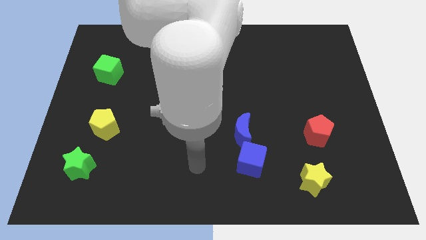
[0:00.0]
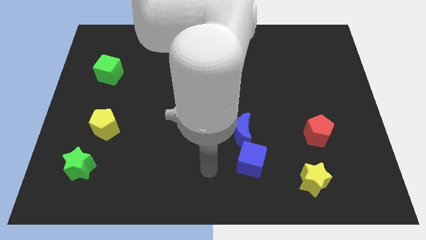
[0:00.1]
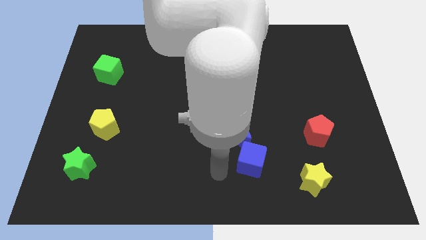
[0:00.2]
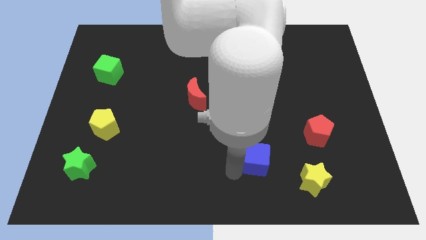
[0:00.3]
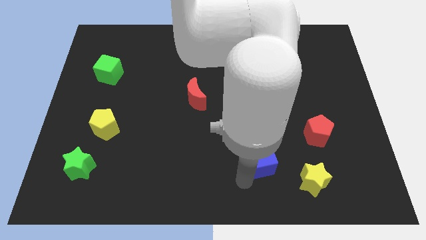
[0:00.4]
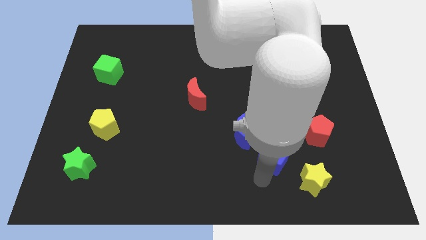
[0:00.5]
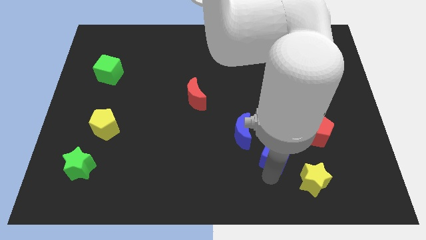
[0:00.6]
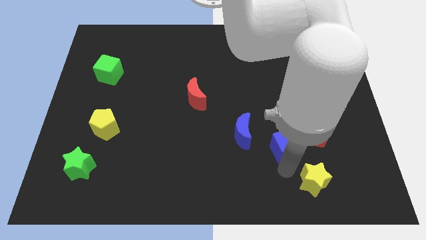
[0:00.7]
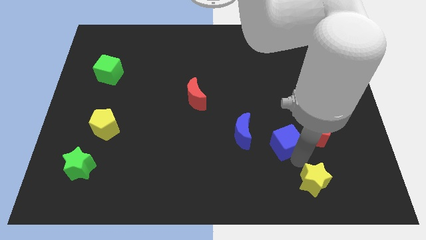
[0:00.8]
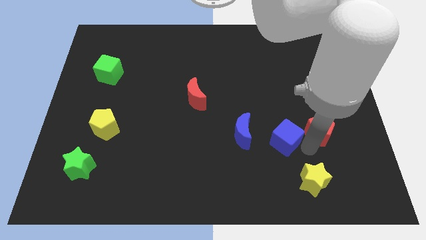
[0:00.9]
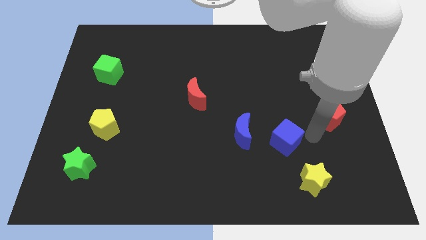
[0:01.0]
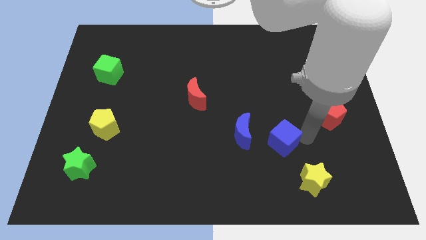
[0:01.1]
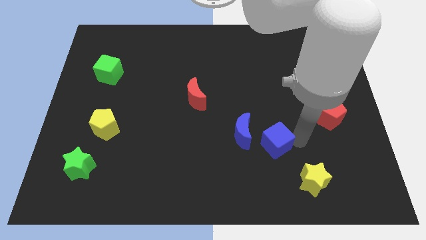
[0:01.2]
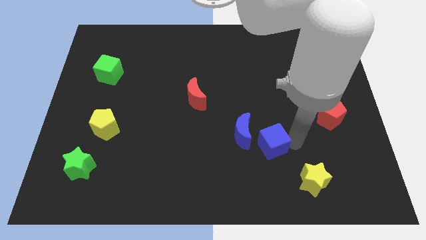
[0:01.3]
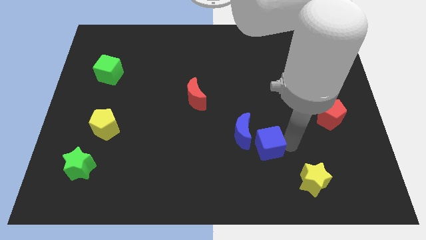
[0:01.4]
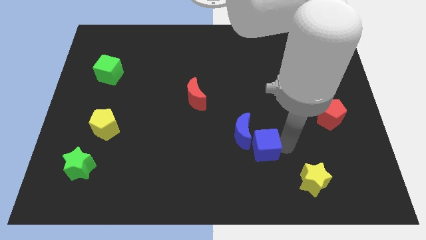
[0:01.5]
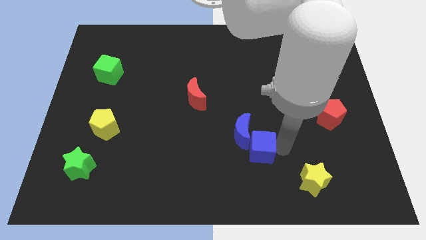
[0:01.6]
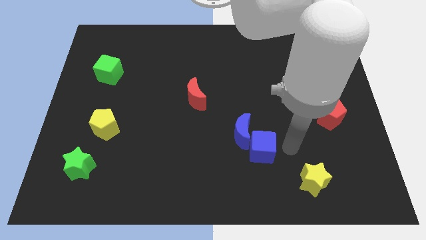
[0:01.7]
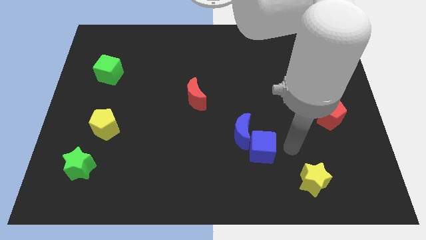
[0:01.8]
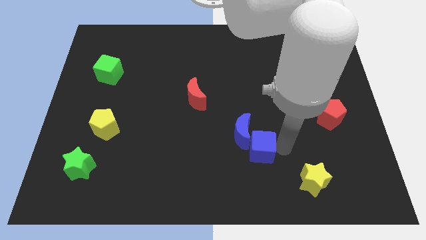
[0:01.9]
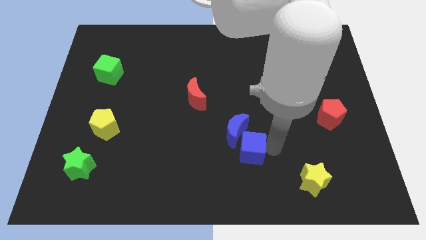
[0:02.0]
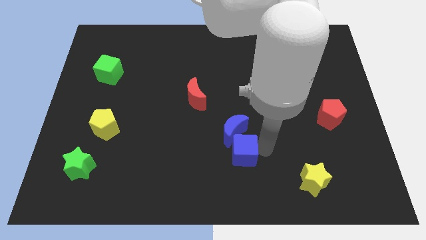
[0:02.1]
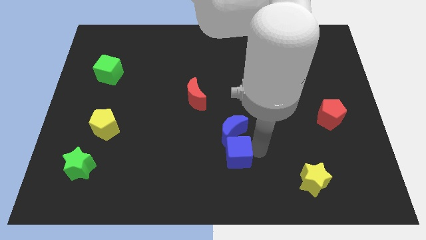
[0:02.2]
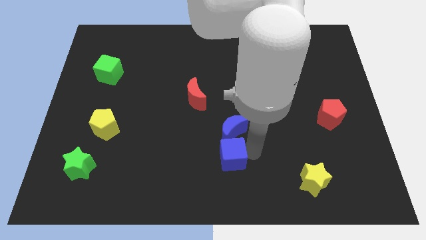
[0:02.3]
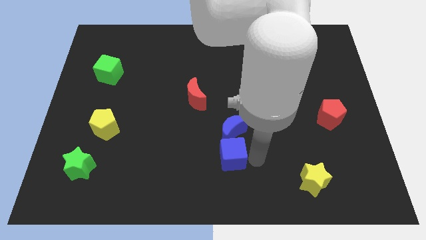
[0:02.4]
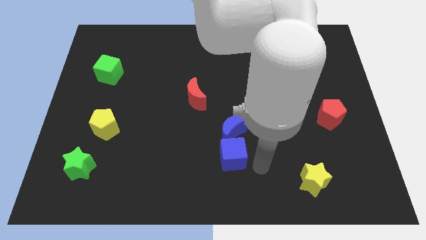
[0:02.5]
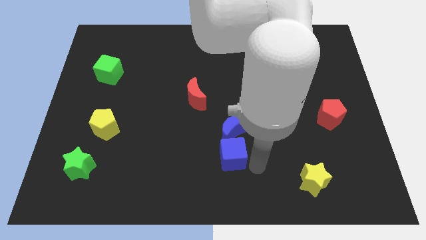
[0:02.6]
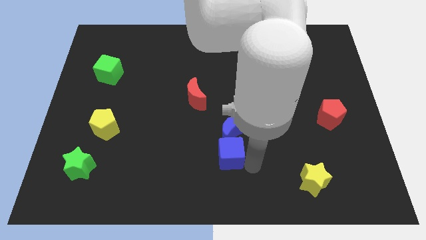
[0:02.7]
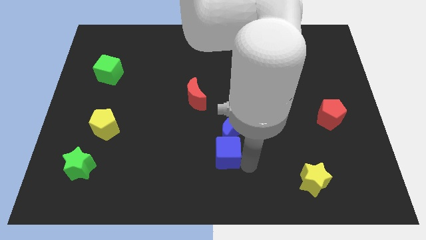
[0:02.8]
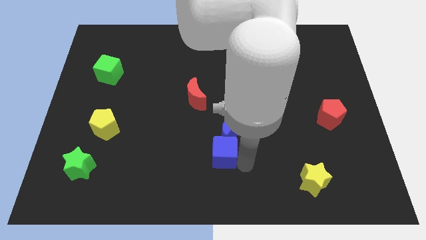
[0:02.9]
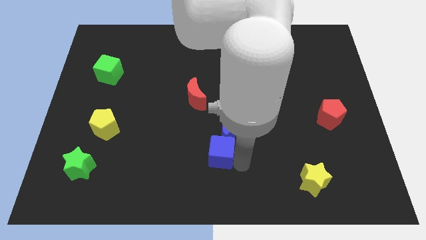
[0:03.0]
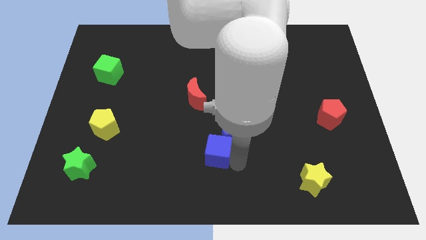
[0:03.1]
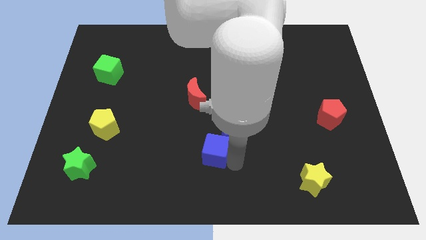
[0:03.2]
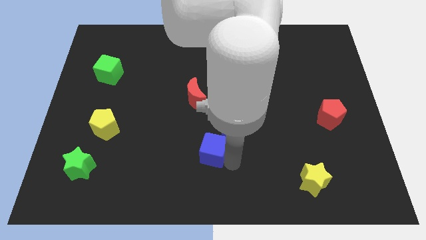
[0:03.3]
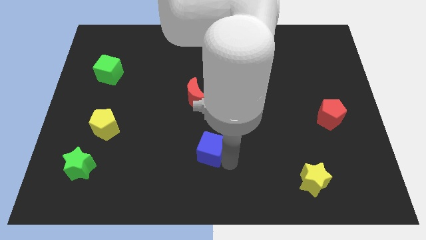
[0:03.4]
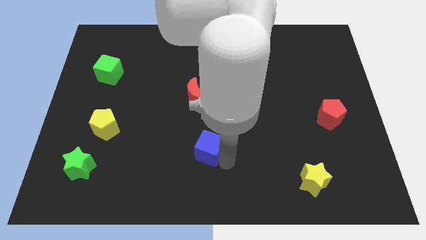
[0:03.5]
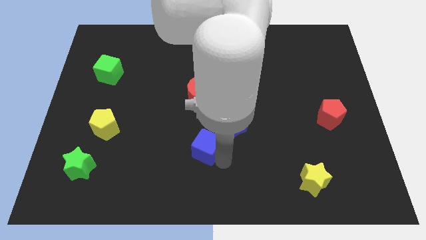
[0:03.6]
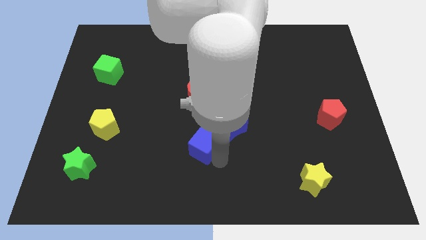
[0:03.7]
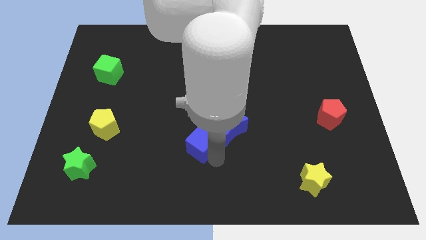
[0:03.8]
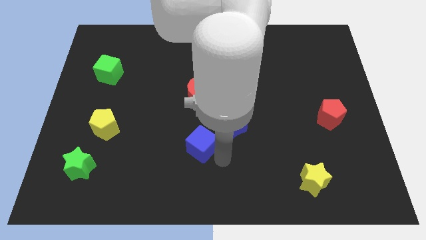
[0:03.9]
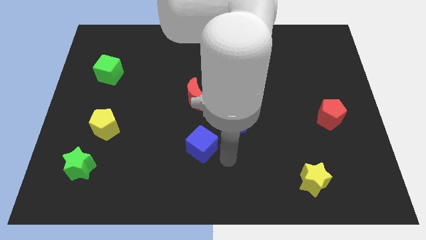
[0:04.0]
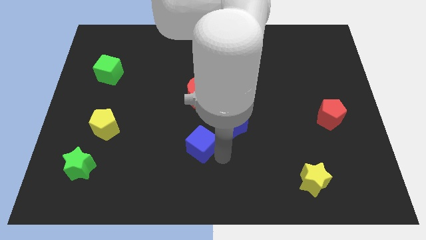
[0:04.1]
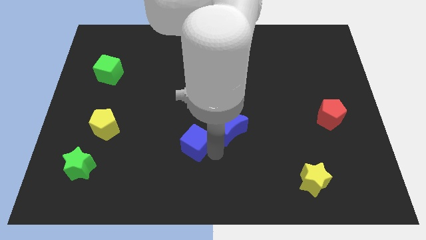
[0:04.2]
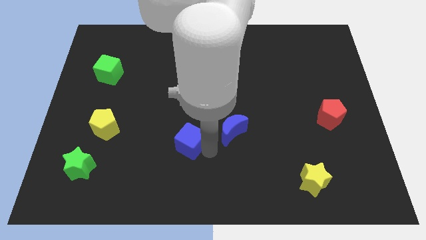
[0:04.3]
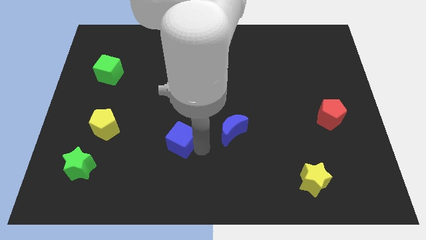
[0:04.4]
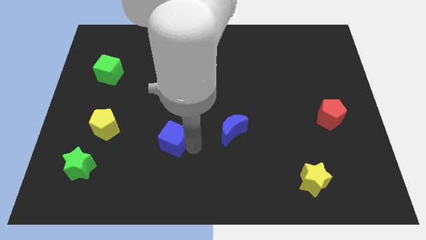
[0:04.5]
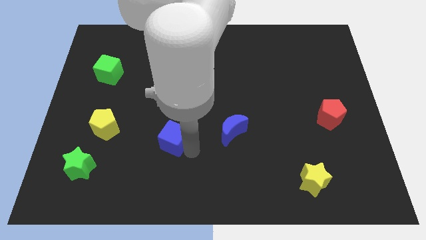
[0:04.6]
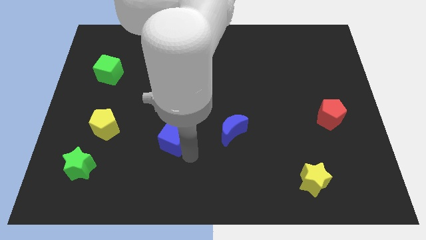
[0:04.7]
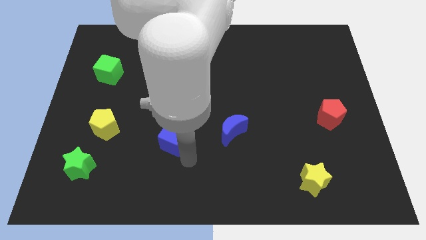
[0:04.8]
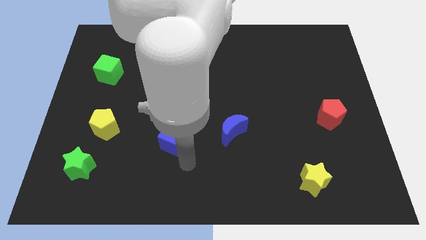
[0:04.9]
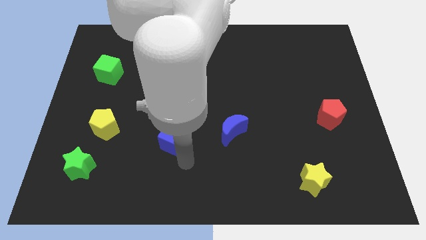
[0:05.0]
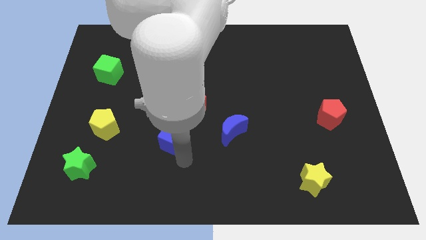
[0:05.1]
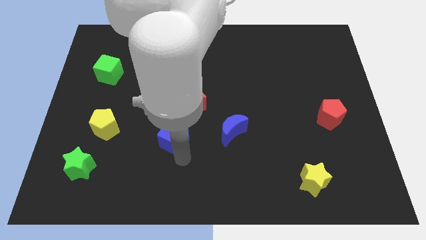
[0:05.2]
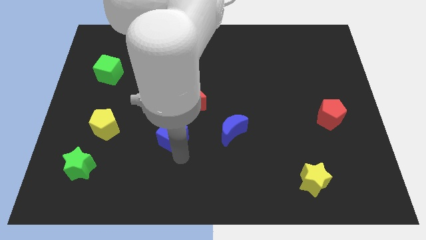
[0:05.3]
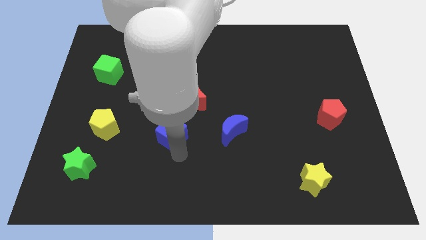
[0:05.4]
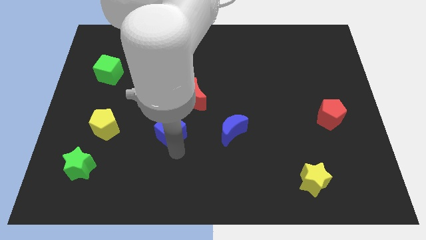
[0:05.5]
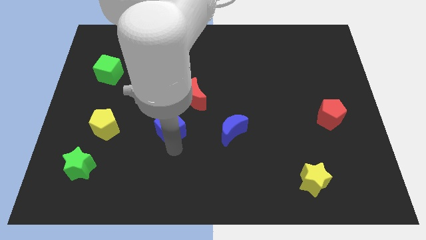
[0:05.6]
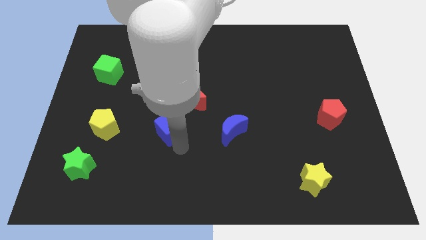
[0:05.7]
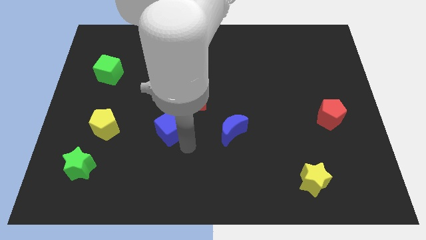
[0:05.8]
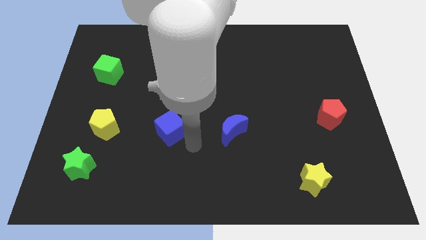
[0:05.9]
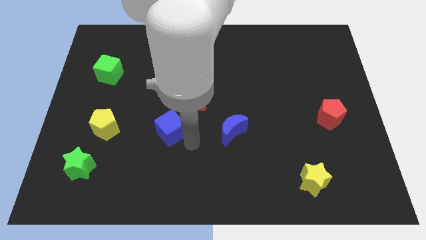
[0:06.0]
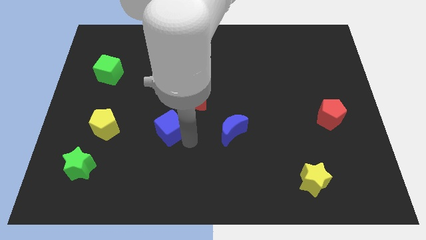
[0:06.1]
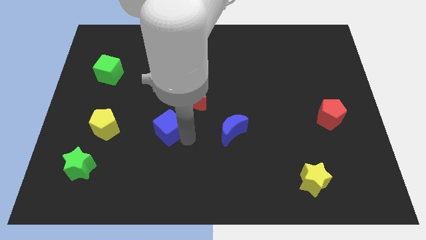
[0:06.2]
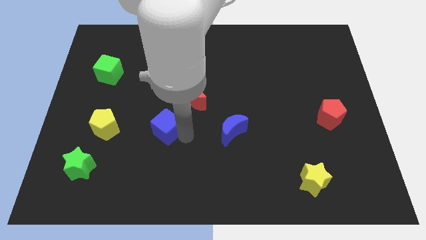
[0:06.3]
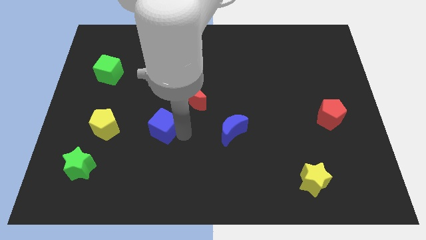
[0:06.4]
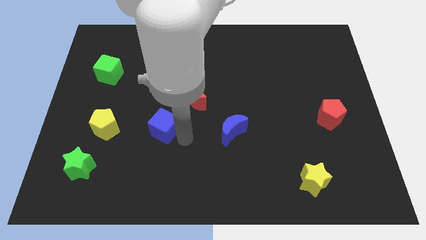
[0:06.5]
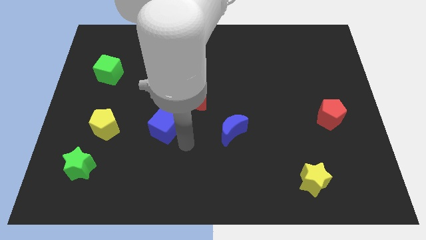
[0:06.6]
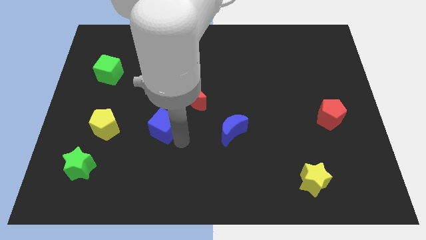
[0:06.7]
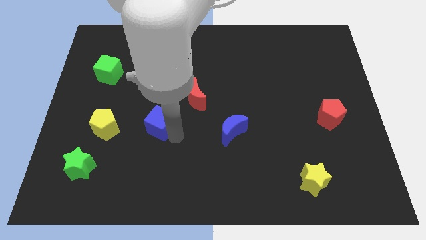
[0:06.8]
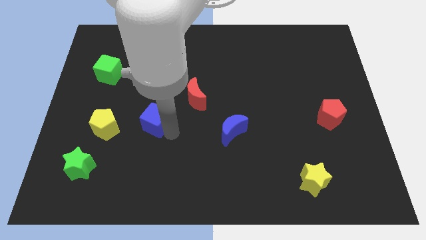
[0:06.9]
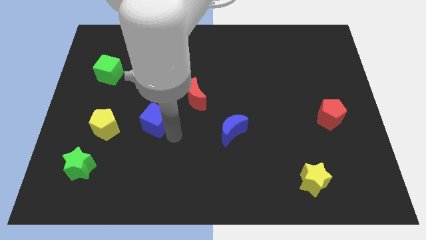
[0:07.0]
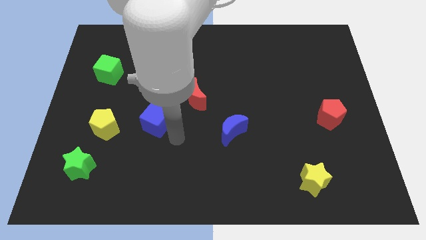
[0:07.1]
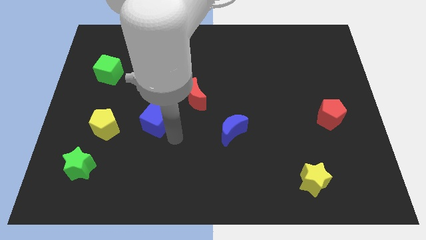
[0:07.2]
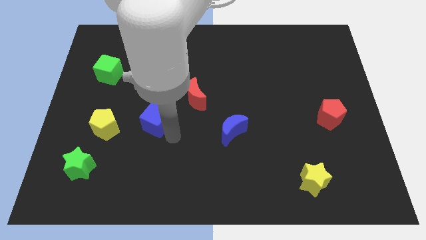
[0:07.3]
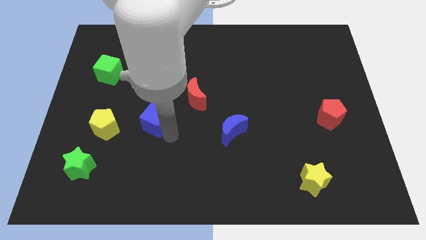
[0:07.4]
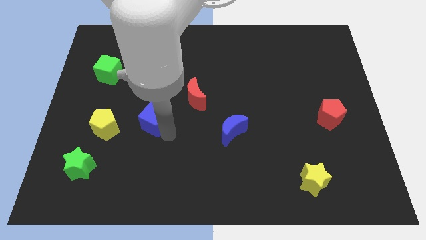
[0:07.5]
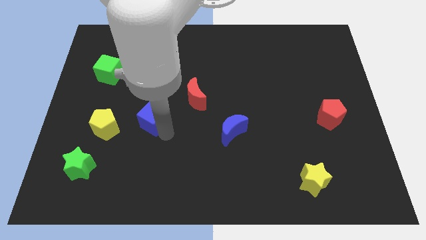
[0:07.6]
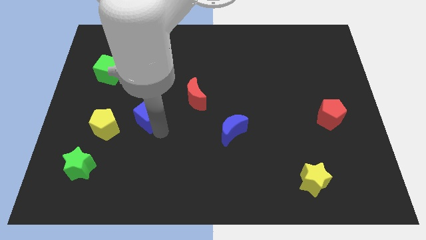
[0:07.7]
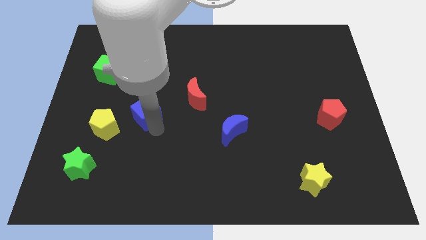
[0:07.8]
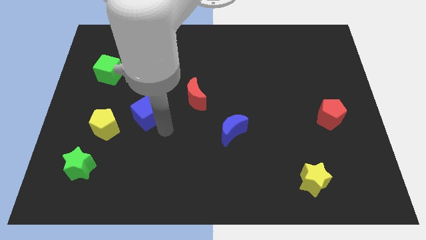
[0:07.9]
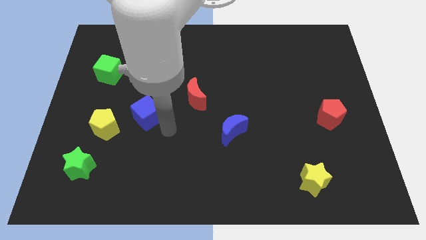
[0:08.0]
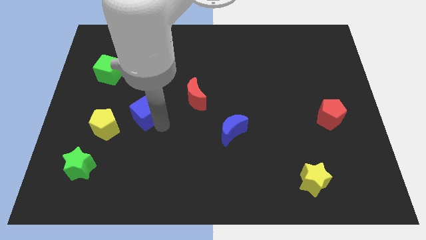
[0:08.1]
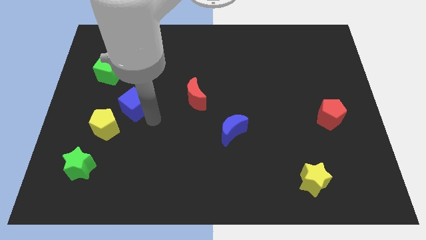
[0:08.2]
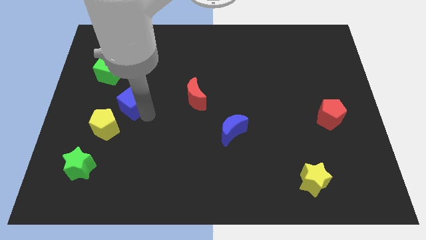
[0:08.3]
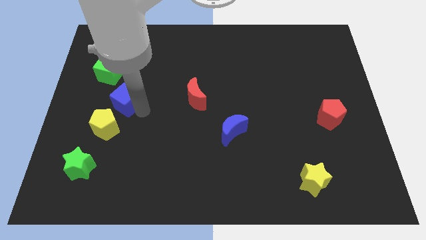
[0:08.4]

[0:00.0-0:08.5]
put the blue cube to the top of the yellow pentagon
